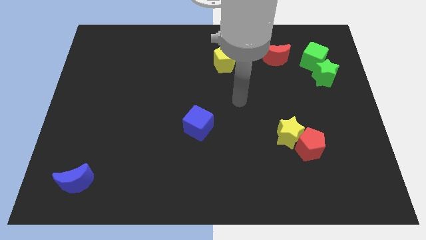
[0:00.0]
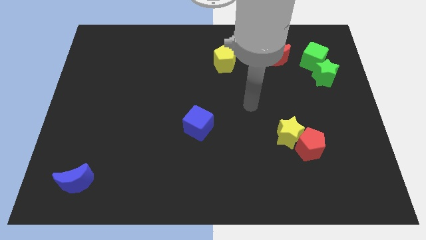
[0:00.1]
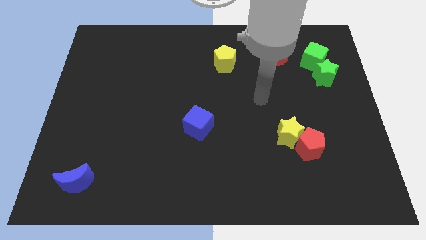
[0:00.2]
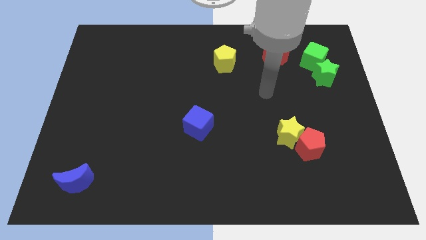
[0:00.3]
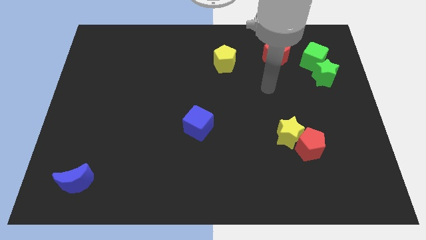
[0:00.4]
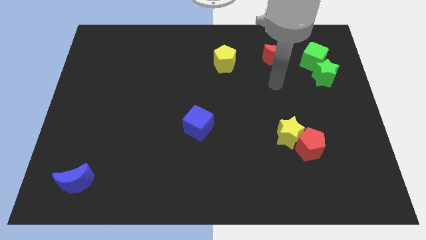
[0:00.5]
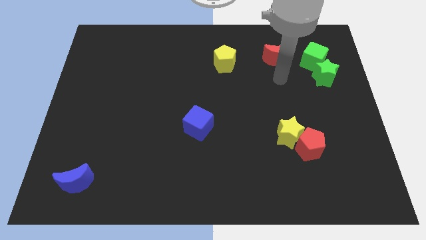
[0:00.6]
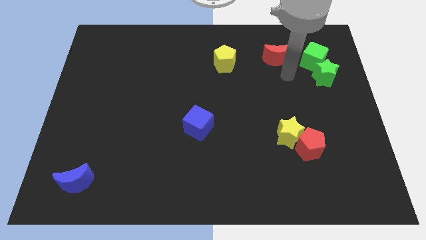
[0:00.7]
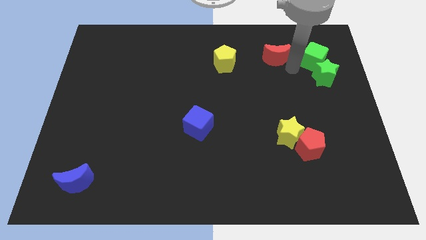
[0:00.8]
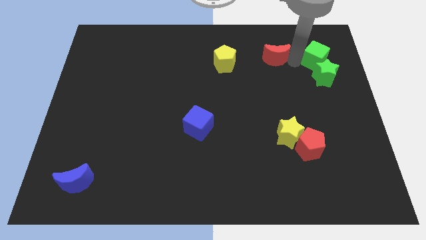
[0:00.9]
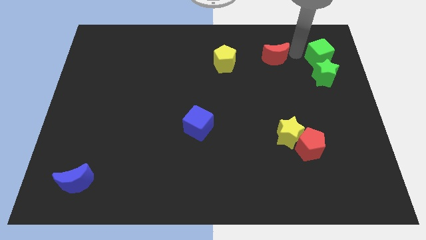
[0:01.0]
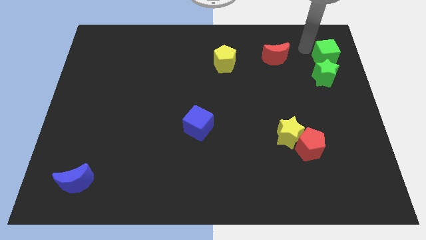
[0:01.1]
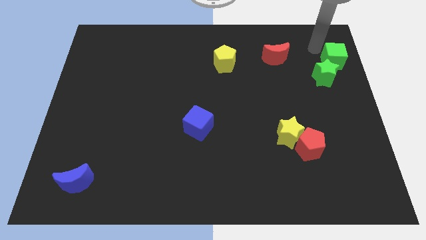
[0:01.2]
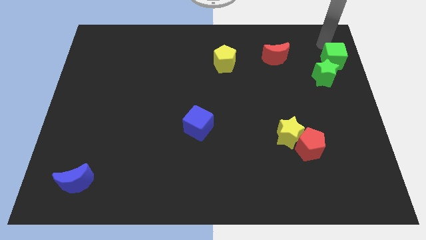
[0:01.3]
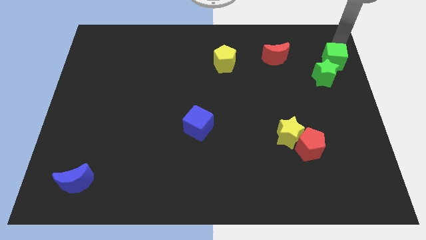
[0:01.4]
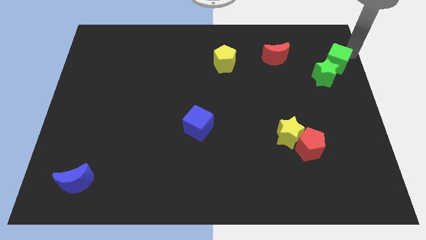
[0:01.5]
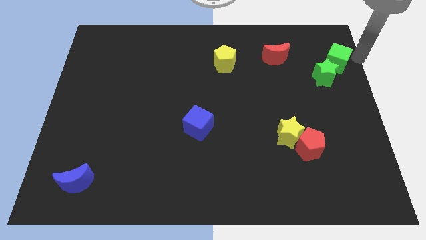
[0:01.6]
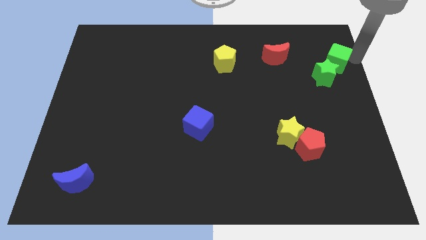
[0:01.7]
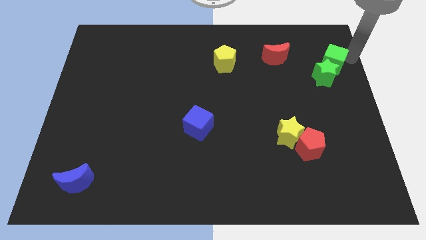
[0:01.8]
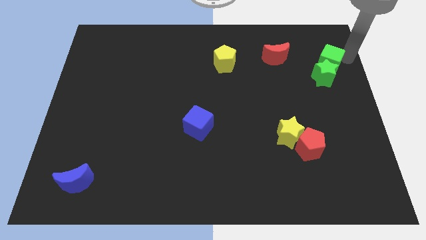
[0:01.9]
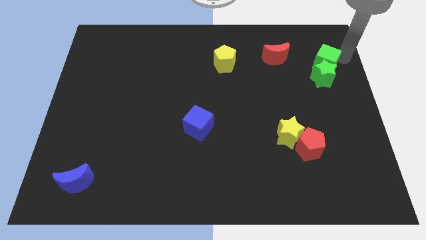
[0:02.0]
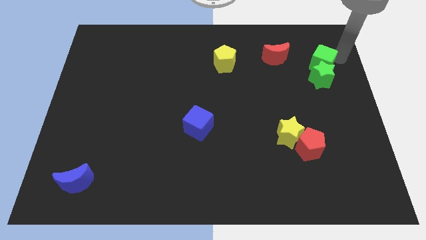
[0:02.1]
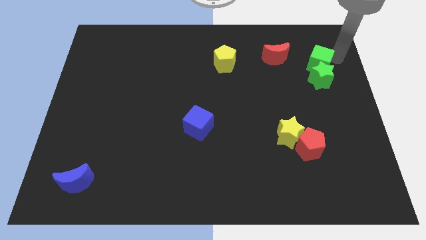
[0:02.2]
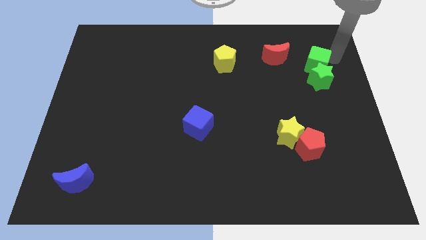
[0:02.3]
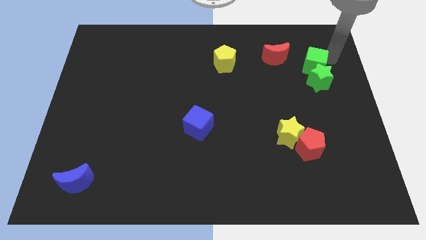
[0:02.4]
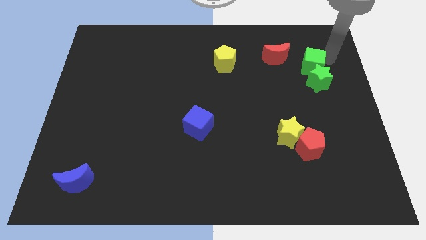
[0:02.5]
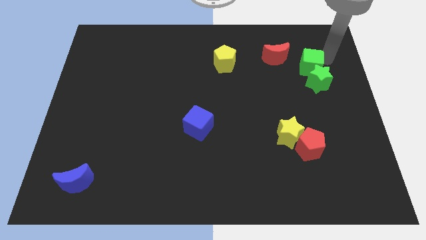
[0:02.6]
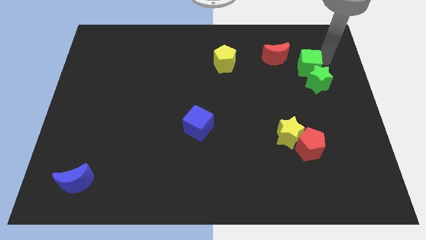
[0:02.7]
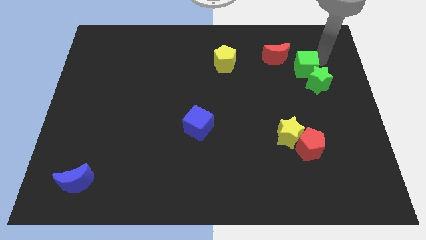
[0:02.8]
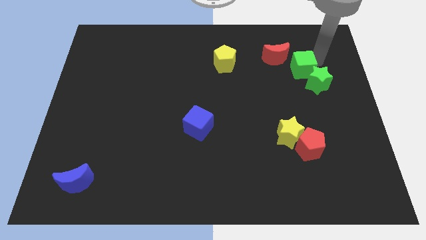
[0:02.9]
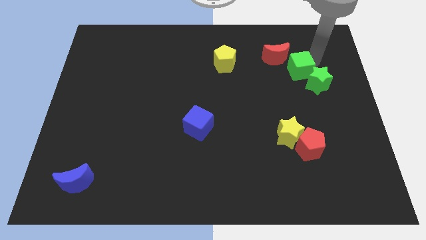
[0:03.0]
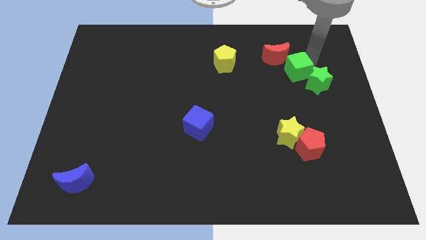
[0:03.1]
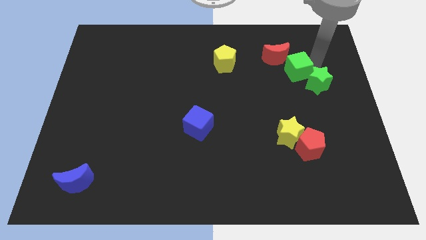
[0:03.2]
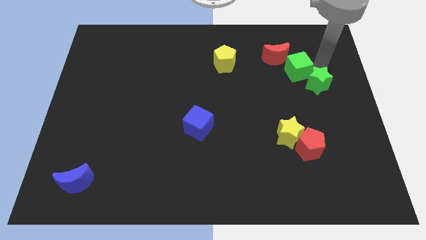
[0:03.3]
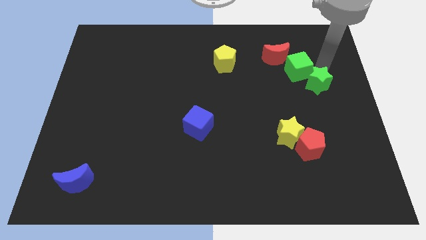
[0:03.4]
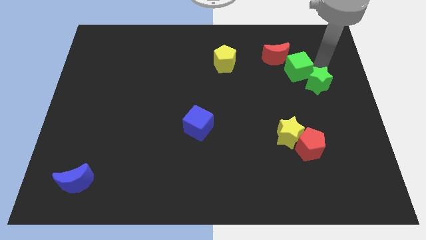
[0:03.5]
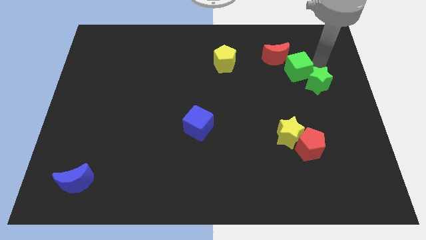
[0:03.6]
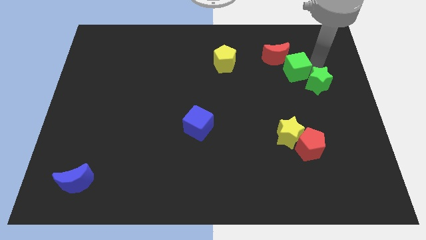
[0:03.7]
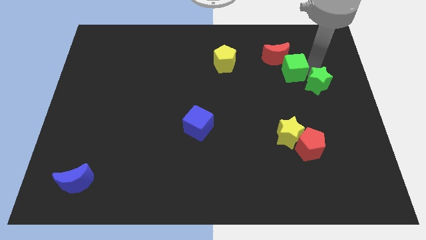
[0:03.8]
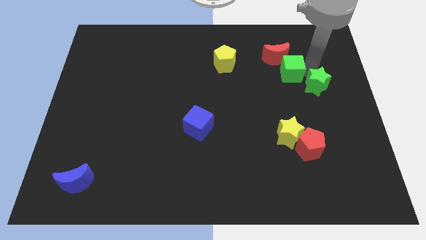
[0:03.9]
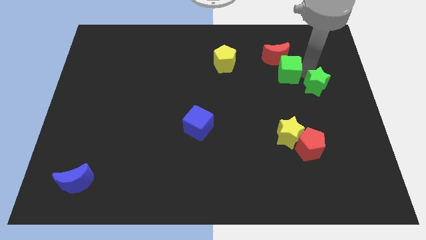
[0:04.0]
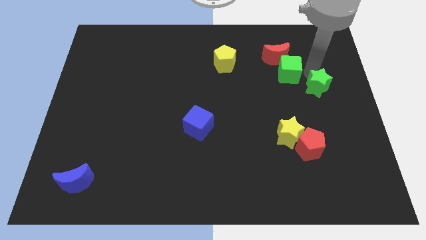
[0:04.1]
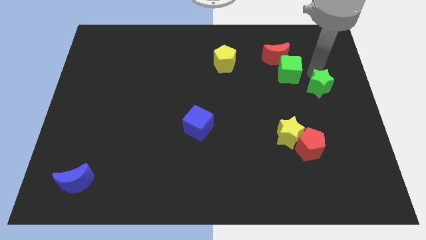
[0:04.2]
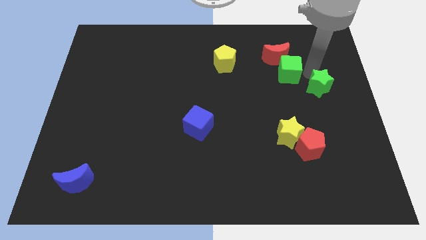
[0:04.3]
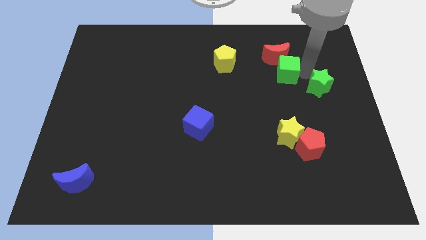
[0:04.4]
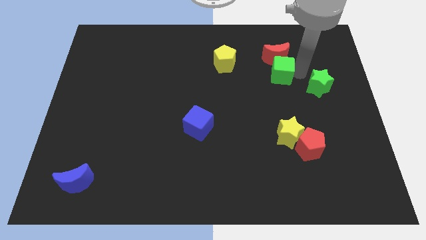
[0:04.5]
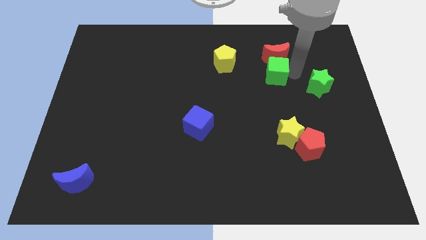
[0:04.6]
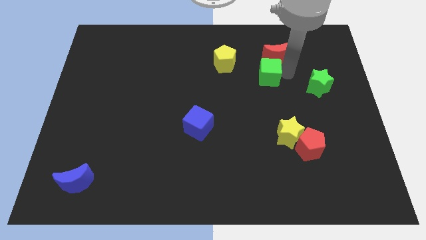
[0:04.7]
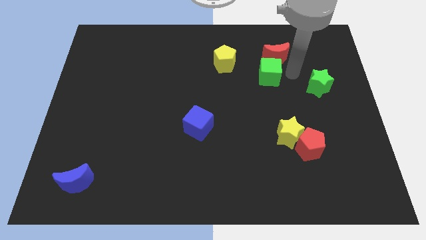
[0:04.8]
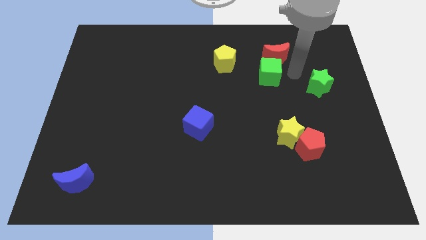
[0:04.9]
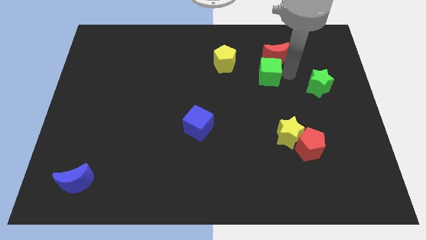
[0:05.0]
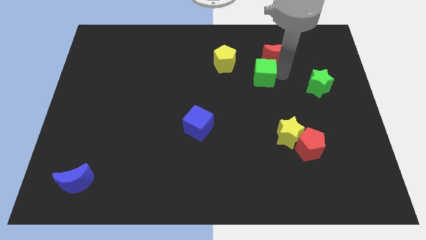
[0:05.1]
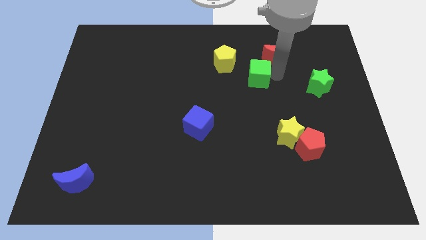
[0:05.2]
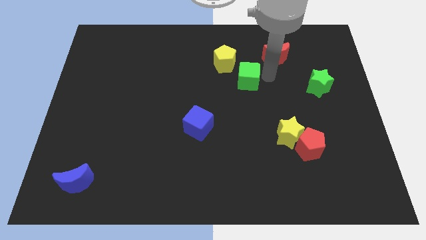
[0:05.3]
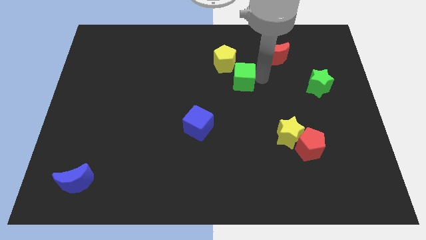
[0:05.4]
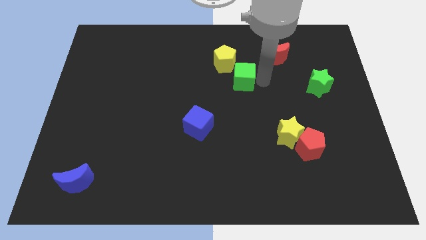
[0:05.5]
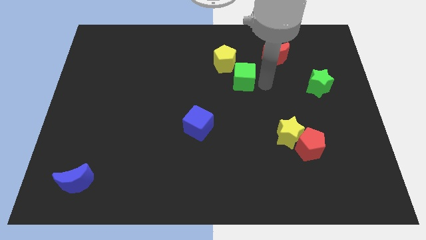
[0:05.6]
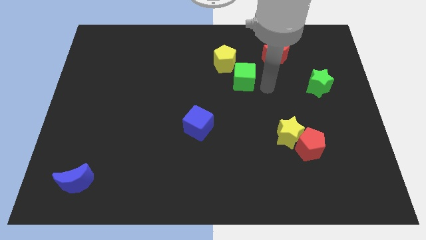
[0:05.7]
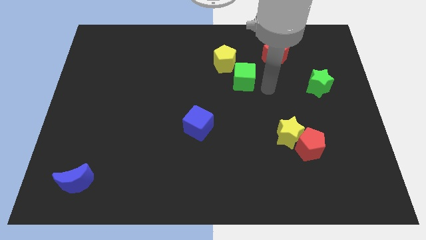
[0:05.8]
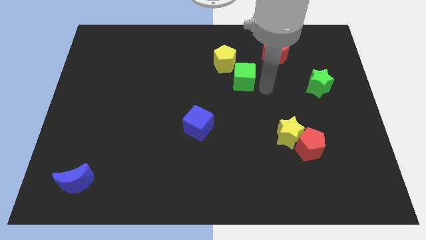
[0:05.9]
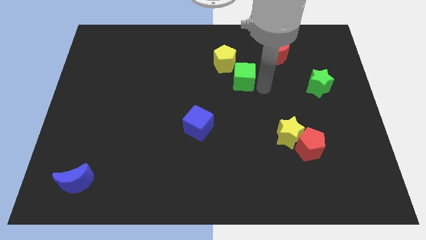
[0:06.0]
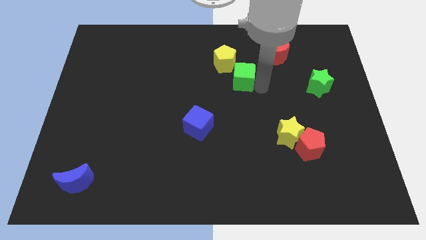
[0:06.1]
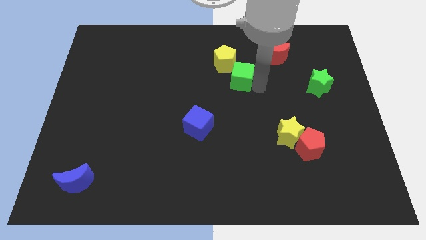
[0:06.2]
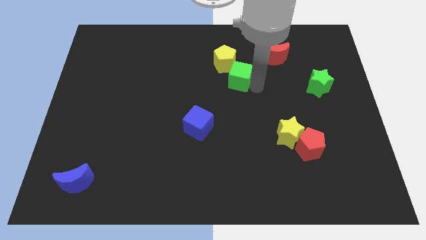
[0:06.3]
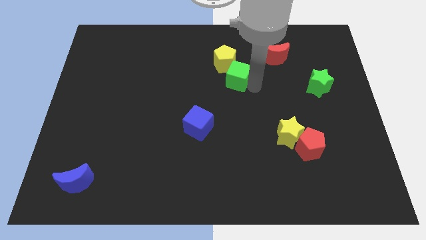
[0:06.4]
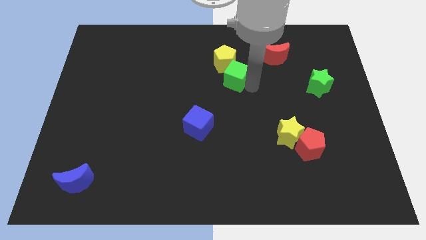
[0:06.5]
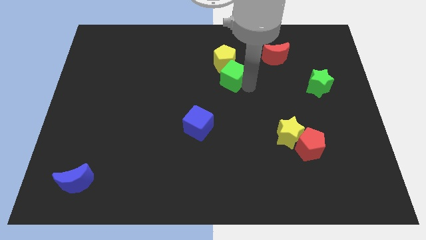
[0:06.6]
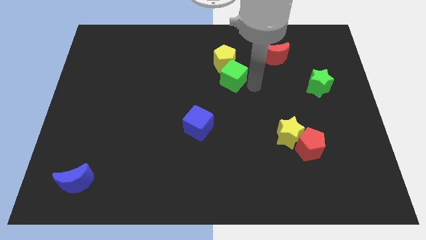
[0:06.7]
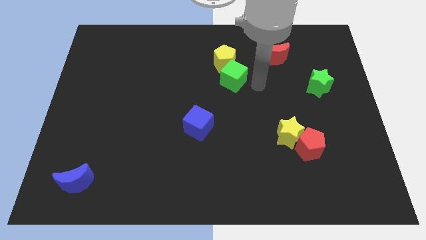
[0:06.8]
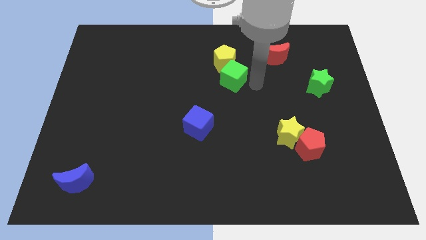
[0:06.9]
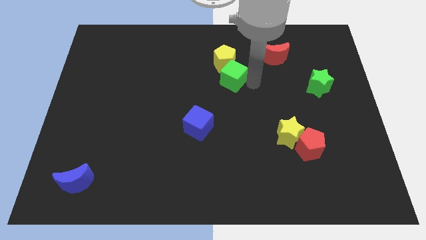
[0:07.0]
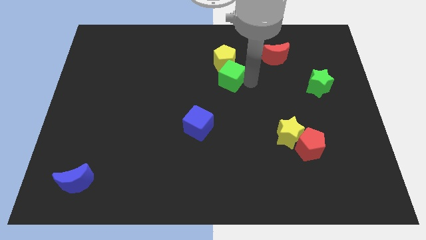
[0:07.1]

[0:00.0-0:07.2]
slide the green cube to the left

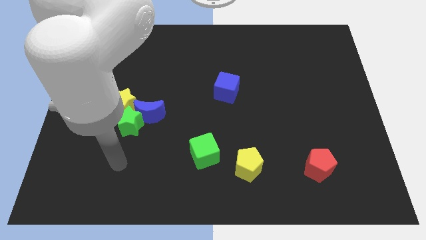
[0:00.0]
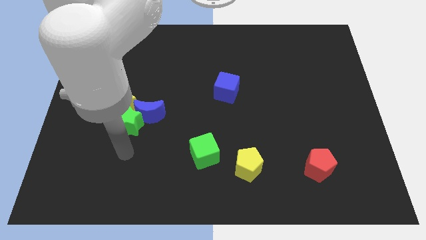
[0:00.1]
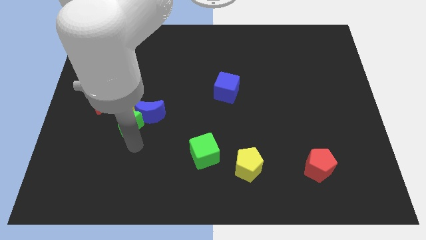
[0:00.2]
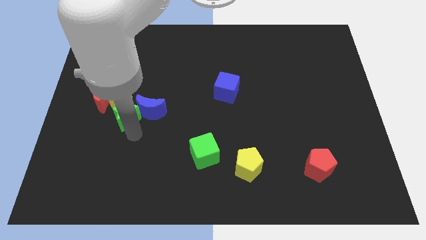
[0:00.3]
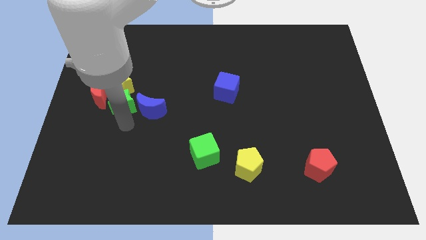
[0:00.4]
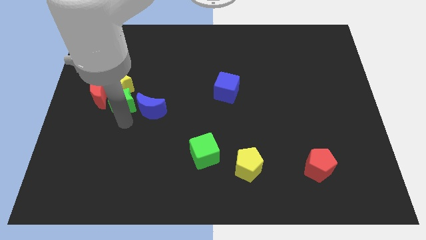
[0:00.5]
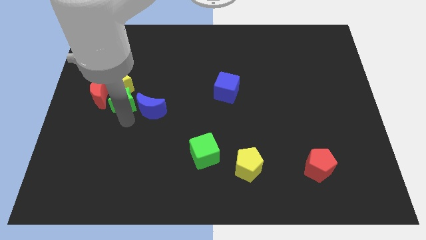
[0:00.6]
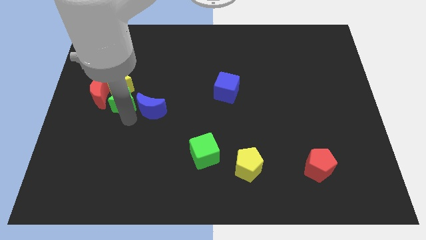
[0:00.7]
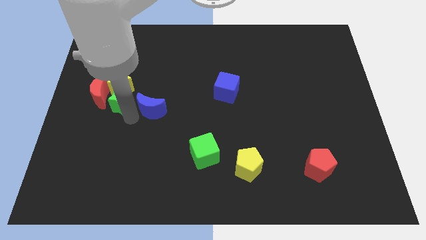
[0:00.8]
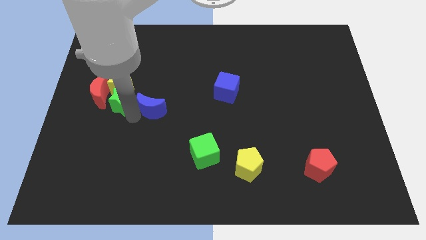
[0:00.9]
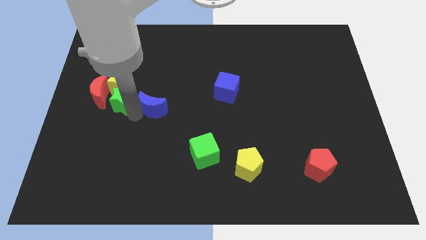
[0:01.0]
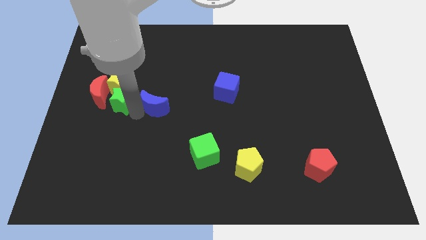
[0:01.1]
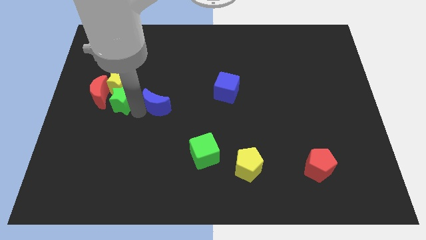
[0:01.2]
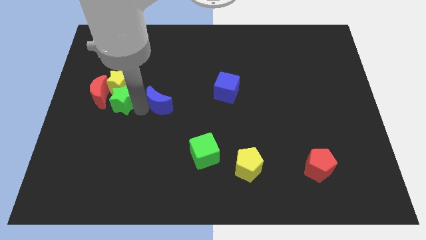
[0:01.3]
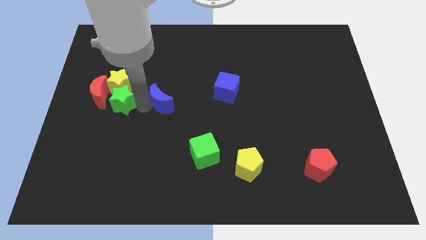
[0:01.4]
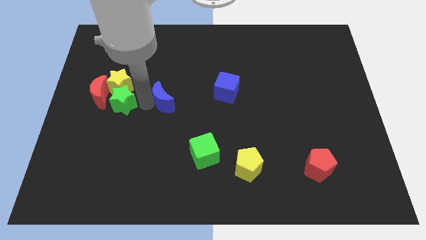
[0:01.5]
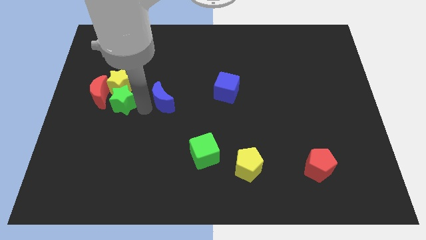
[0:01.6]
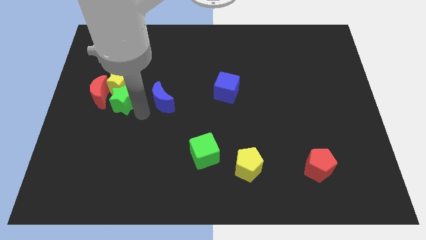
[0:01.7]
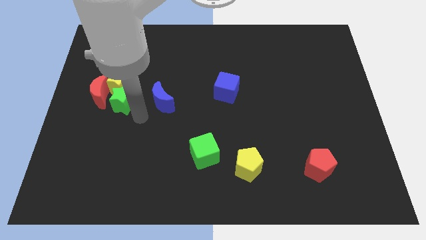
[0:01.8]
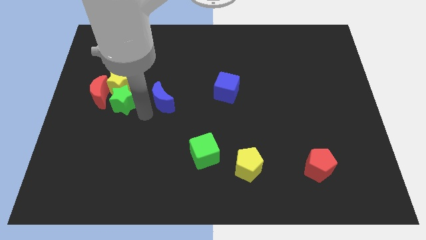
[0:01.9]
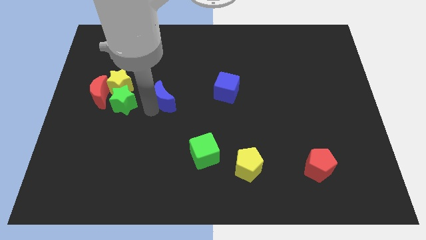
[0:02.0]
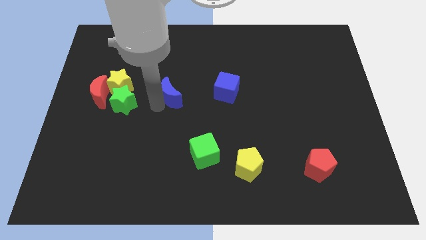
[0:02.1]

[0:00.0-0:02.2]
slide the blue moon diagonally upwards and to the right slightly
